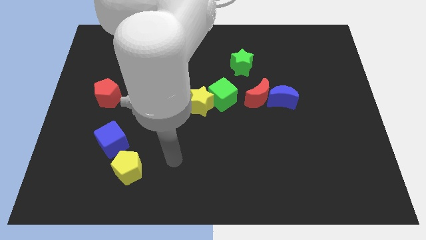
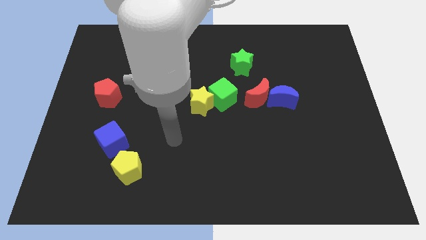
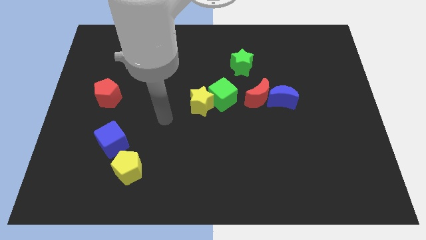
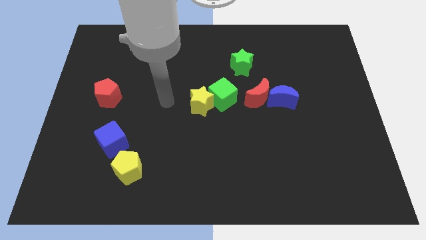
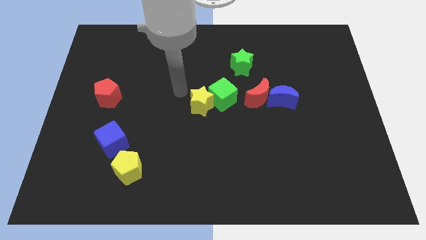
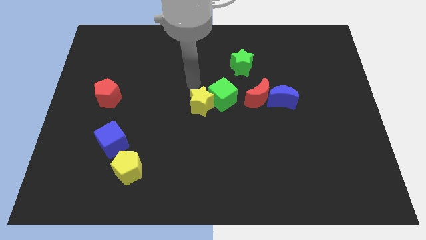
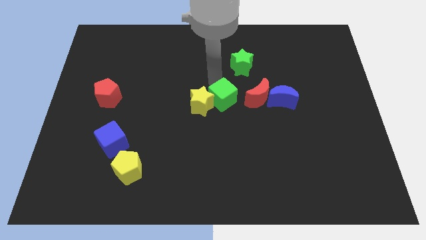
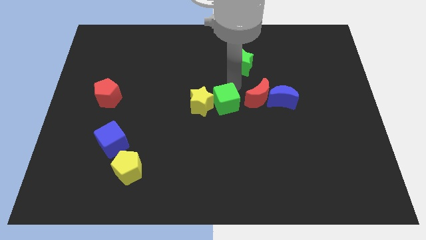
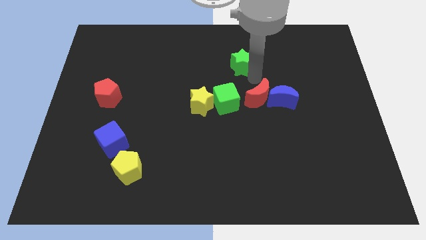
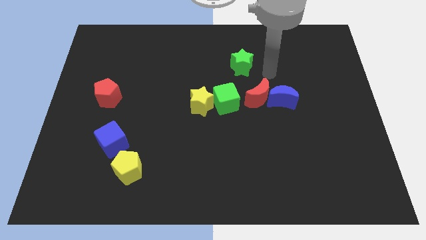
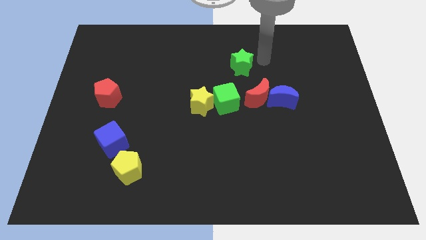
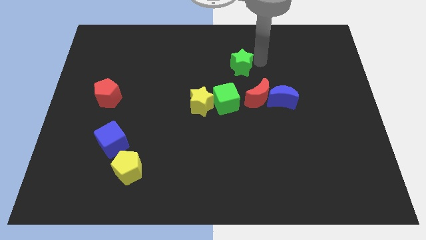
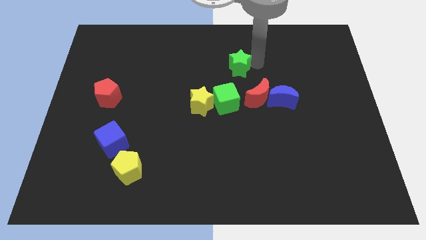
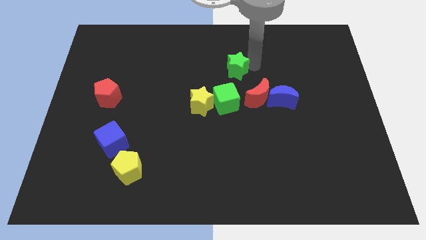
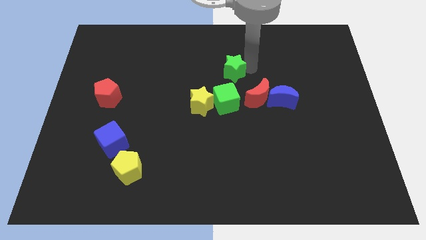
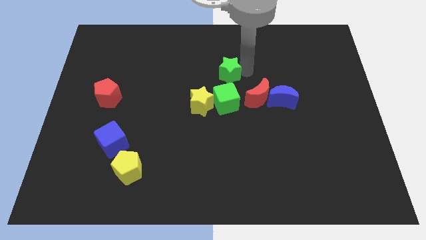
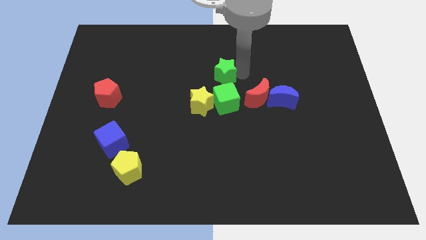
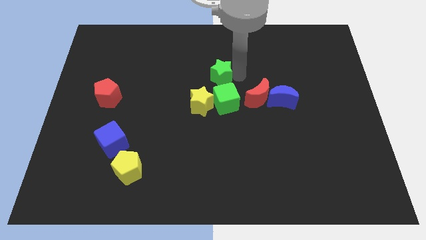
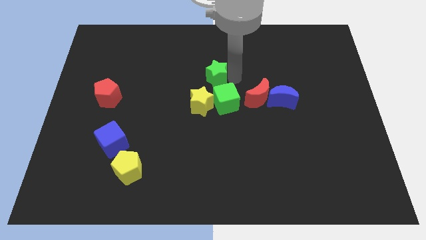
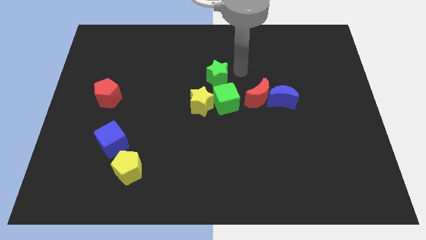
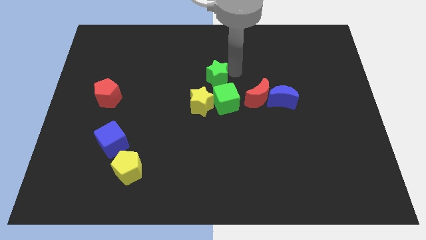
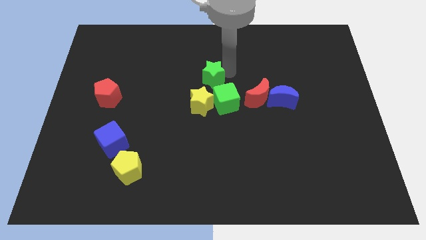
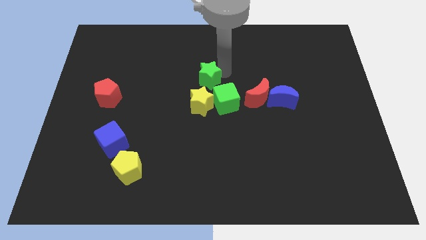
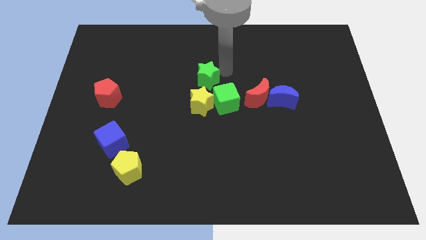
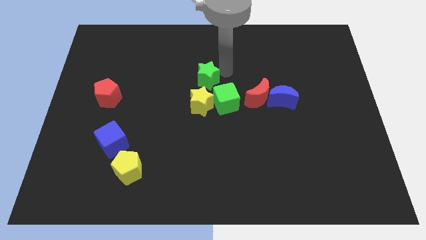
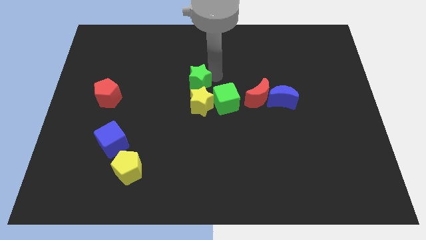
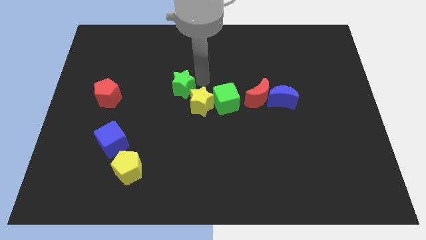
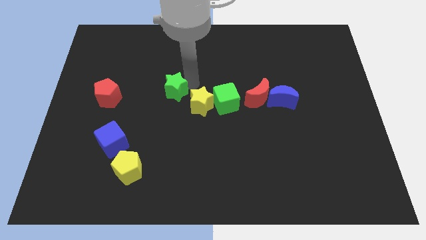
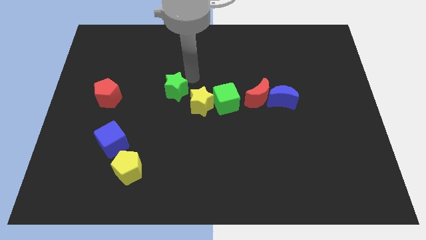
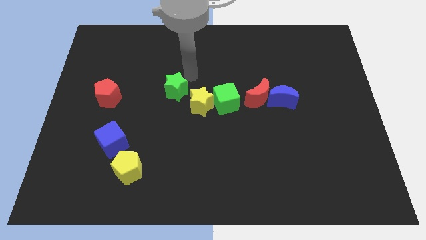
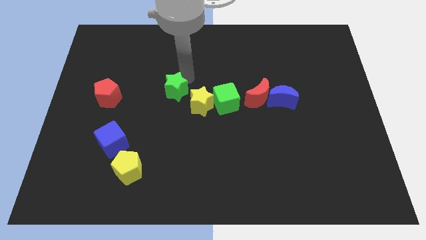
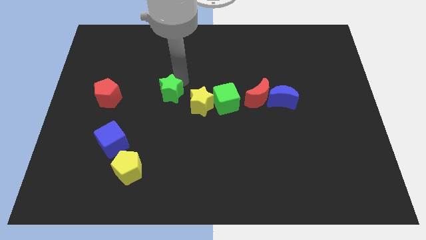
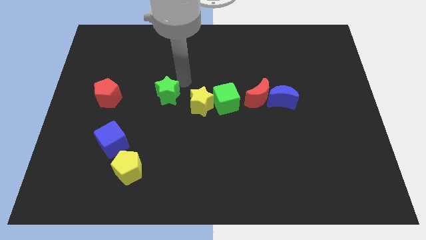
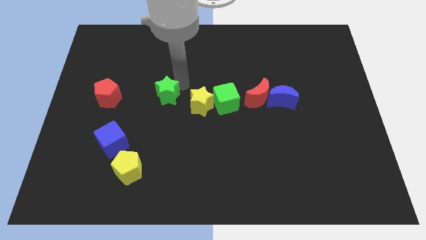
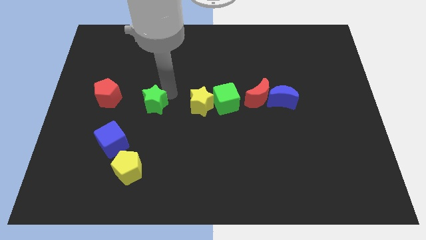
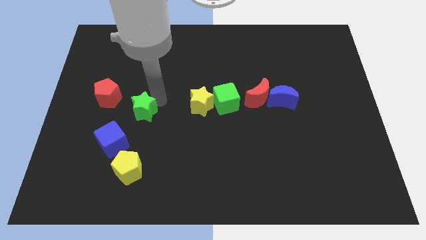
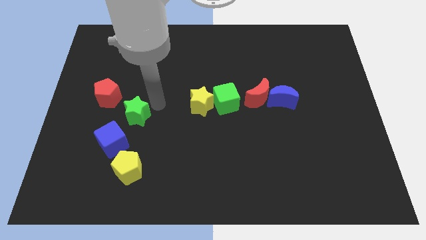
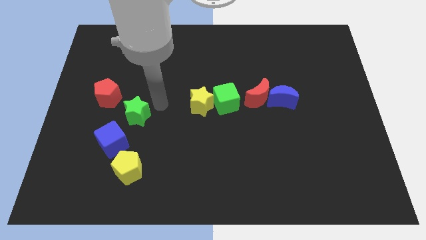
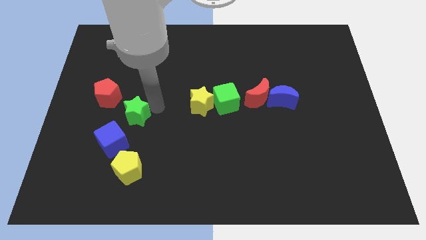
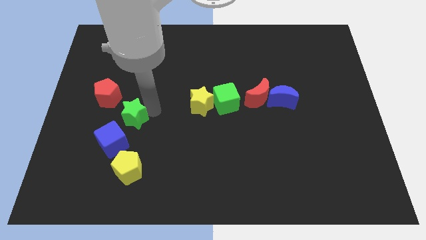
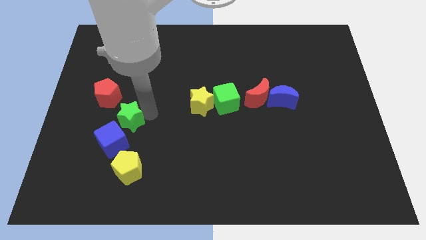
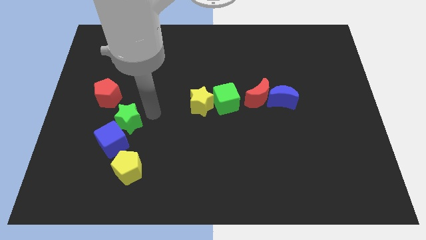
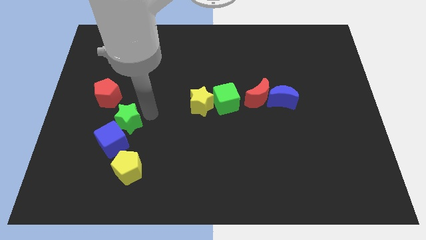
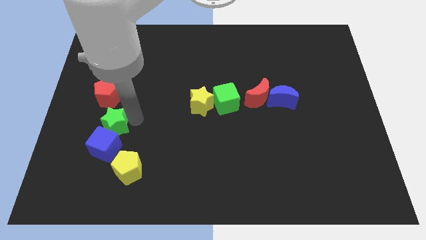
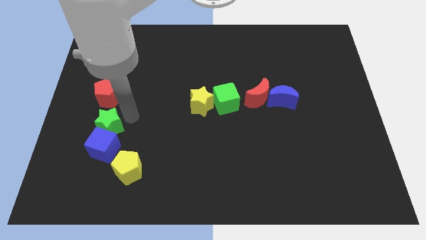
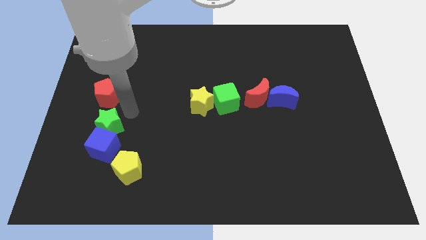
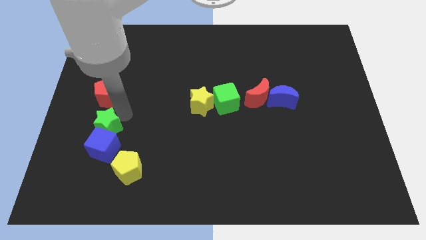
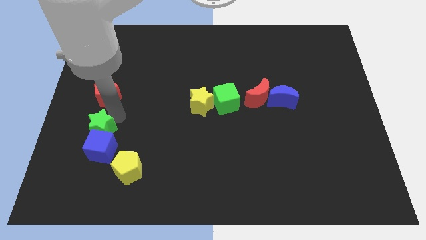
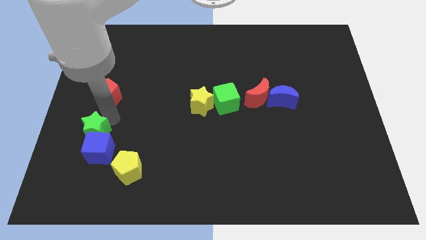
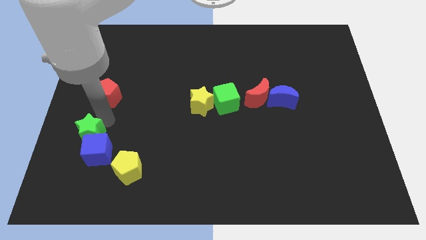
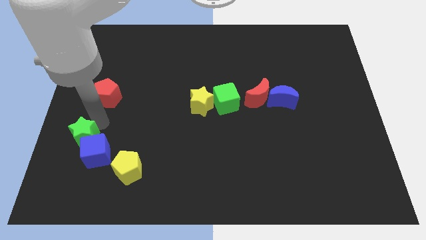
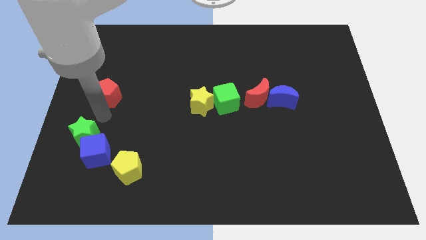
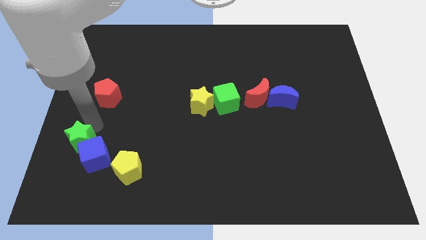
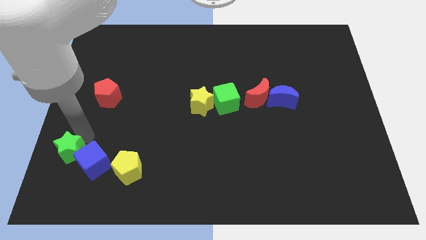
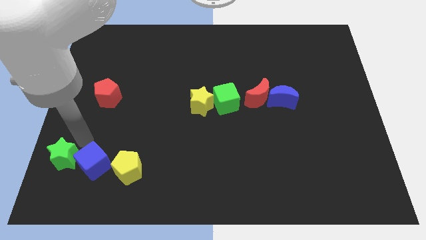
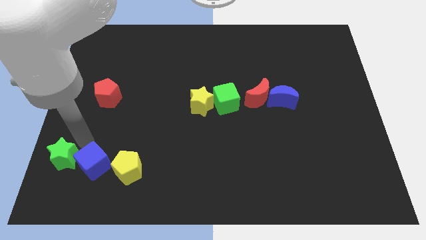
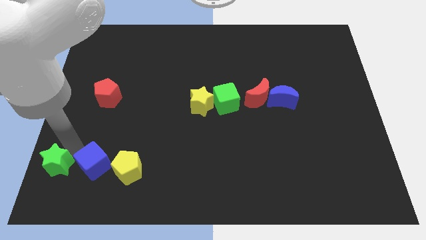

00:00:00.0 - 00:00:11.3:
push the green star to the lower left corner
